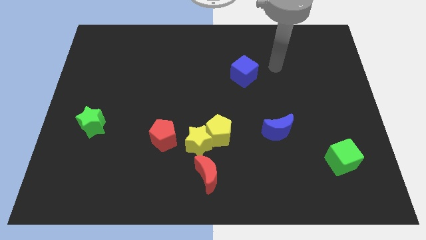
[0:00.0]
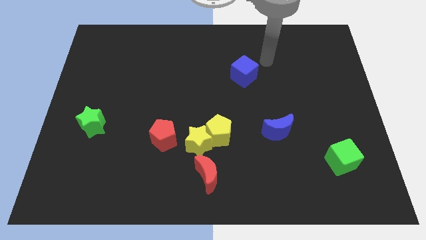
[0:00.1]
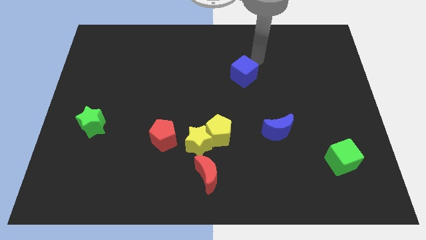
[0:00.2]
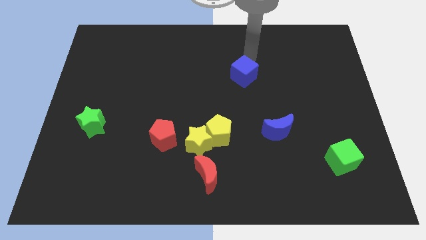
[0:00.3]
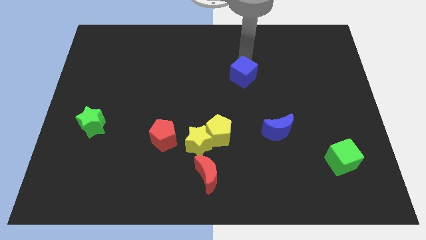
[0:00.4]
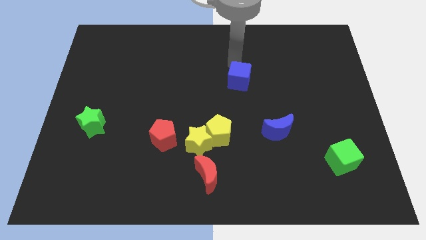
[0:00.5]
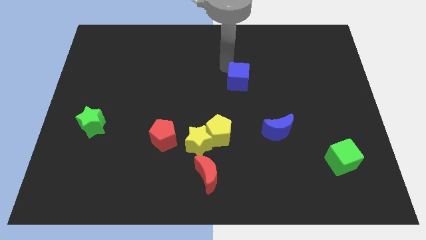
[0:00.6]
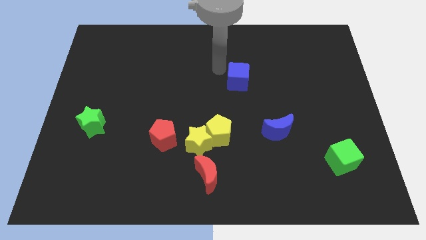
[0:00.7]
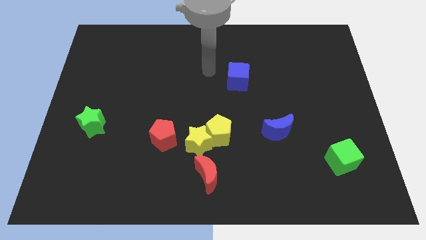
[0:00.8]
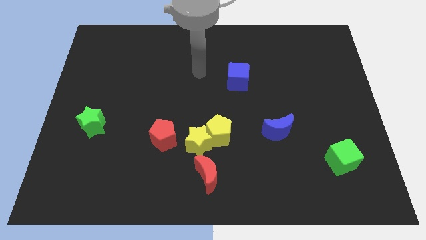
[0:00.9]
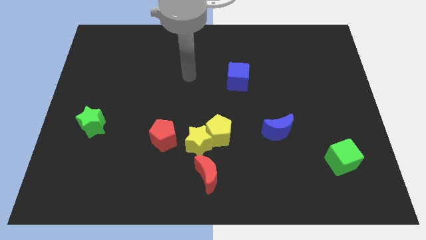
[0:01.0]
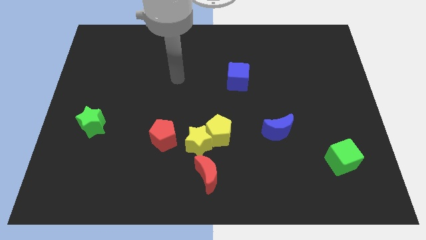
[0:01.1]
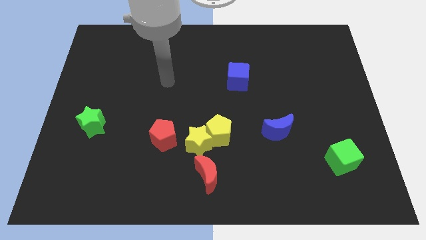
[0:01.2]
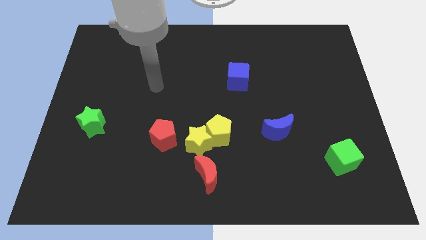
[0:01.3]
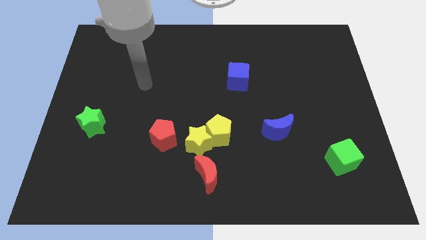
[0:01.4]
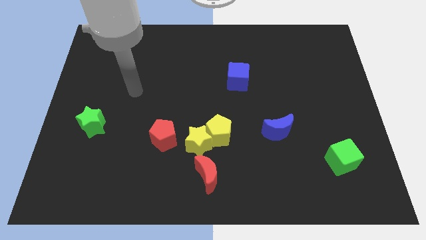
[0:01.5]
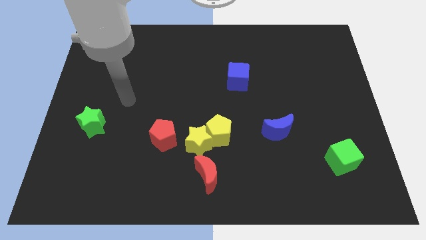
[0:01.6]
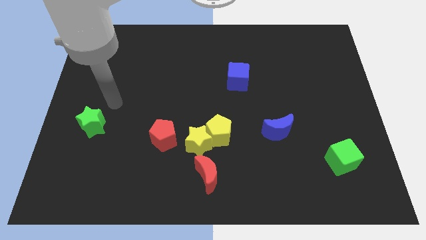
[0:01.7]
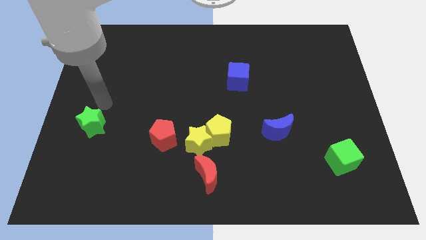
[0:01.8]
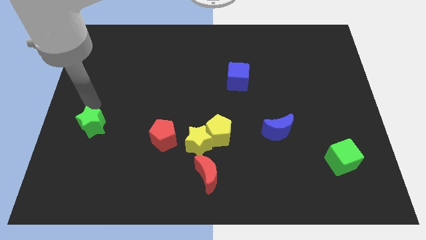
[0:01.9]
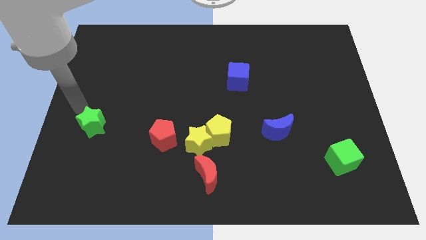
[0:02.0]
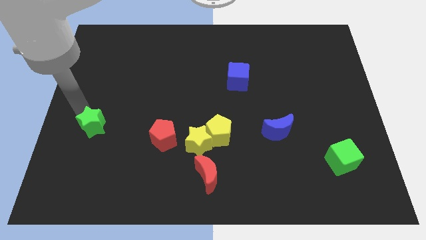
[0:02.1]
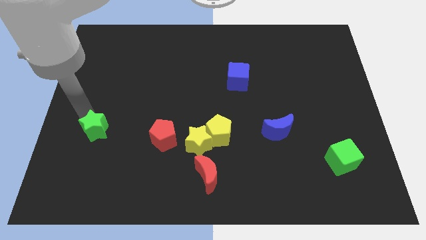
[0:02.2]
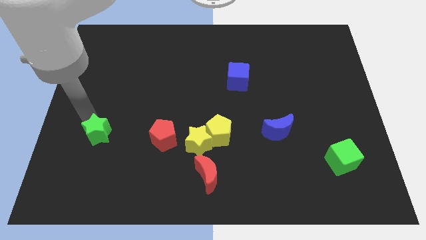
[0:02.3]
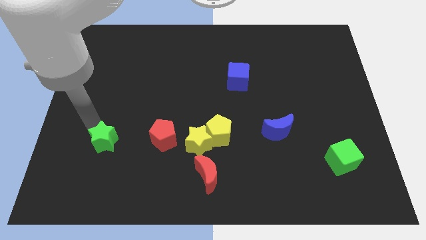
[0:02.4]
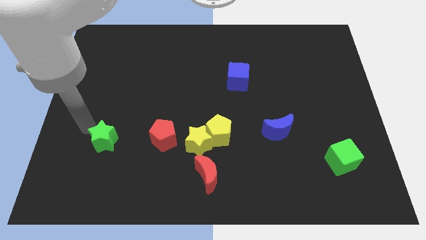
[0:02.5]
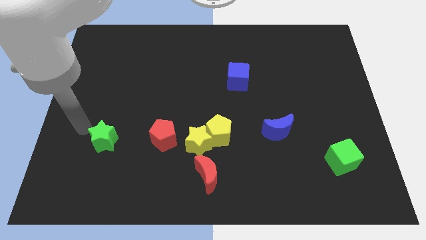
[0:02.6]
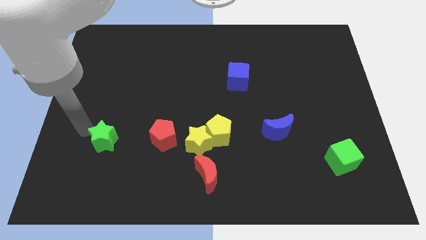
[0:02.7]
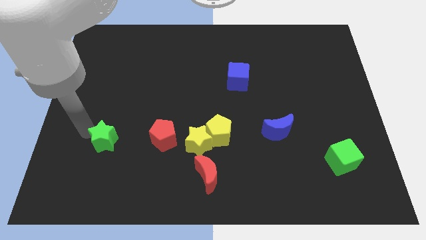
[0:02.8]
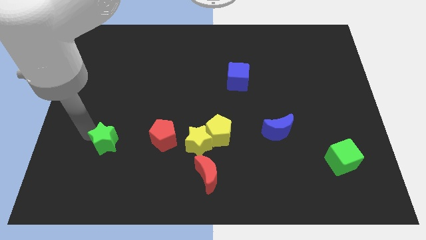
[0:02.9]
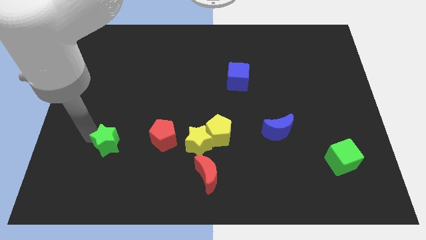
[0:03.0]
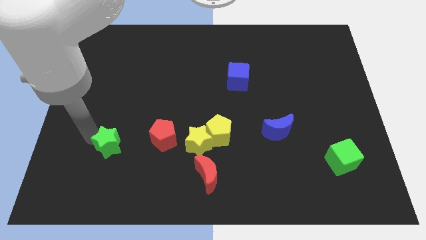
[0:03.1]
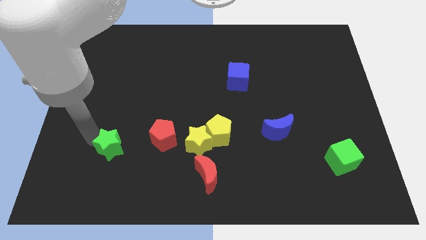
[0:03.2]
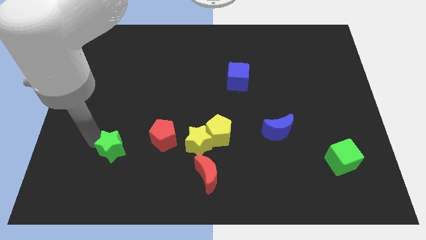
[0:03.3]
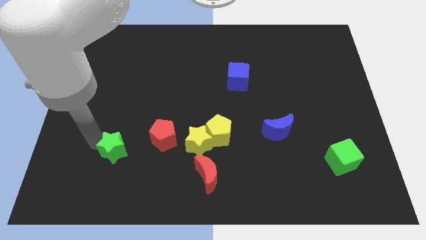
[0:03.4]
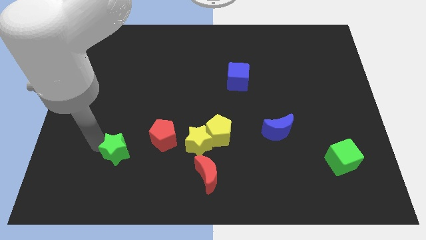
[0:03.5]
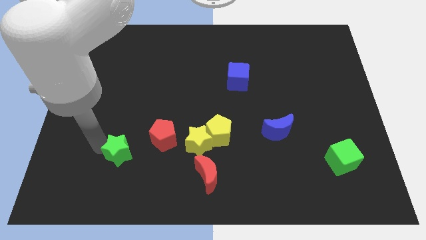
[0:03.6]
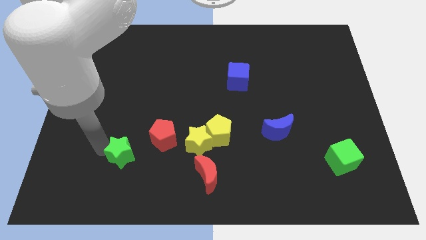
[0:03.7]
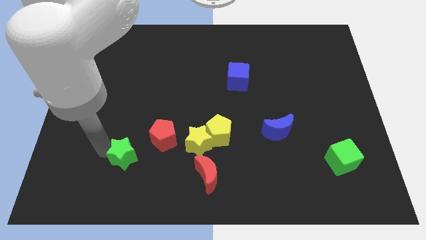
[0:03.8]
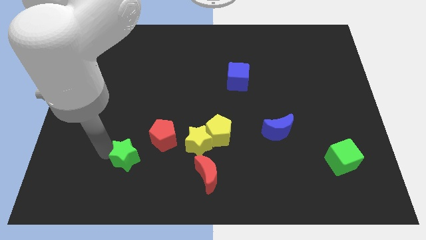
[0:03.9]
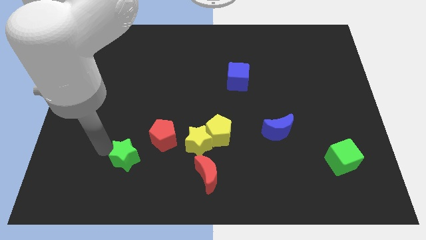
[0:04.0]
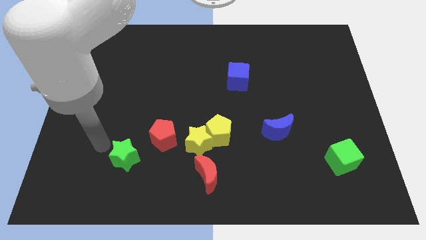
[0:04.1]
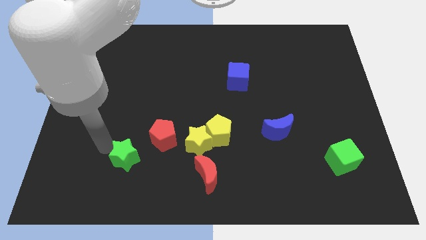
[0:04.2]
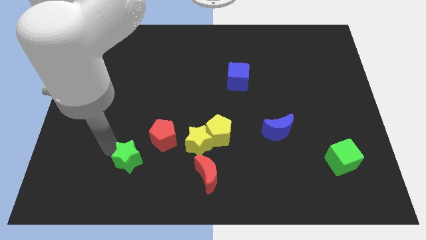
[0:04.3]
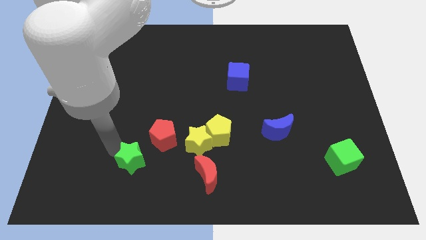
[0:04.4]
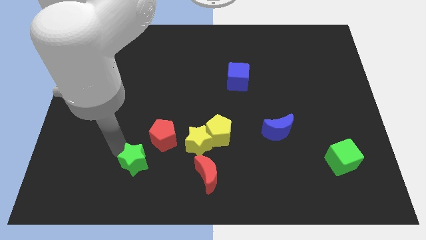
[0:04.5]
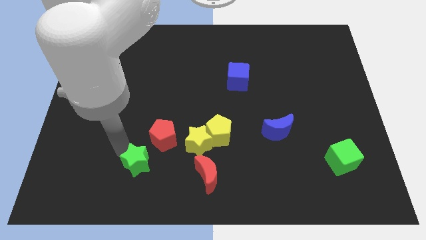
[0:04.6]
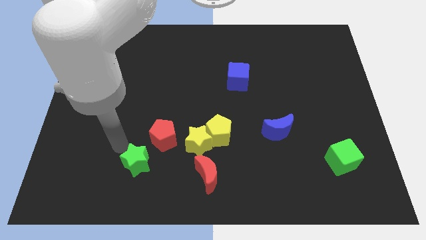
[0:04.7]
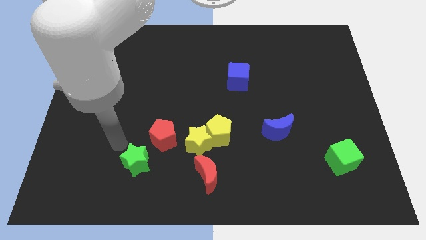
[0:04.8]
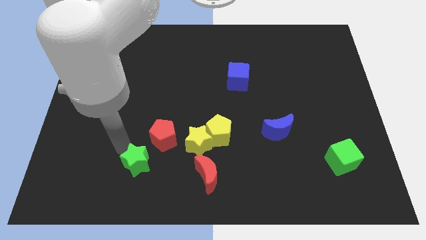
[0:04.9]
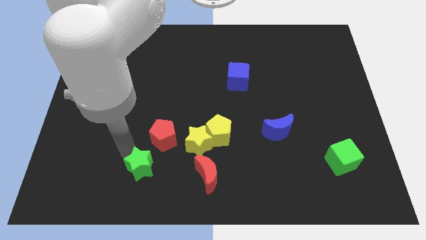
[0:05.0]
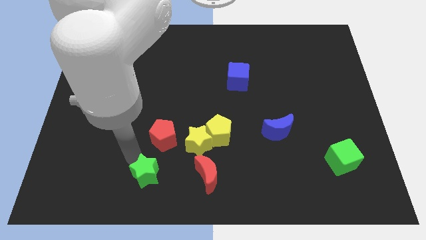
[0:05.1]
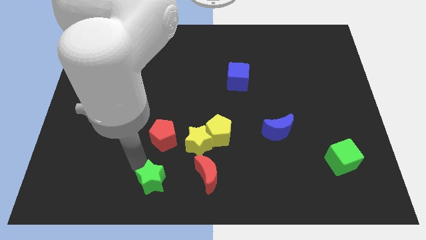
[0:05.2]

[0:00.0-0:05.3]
move the green star to the bottom

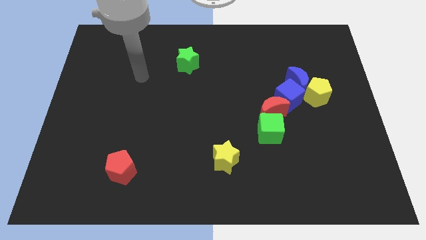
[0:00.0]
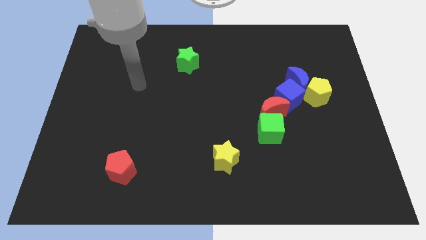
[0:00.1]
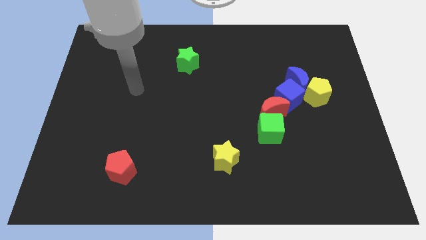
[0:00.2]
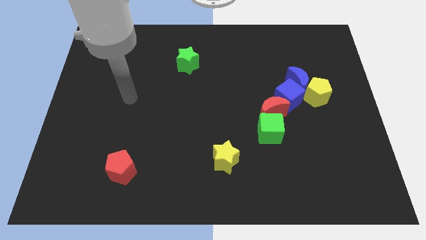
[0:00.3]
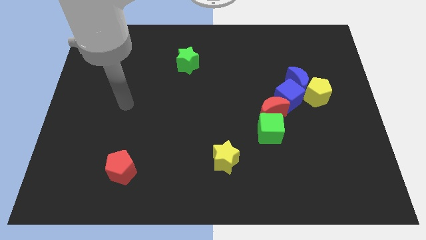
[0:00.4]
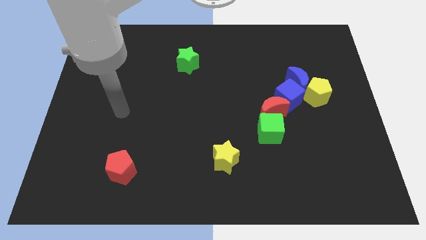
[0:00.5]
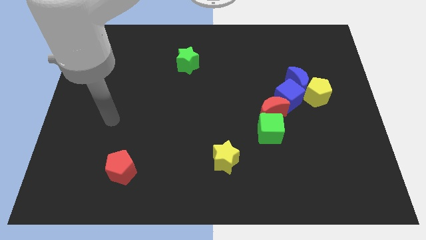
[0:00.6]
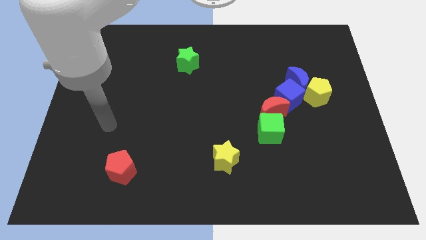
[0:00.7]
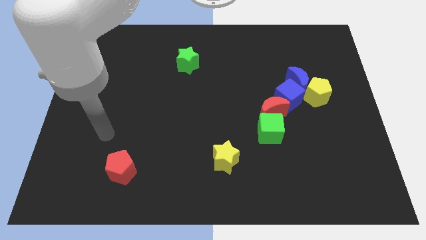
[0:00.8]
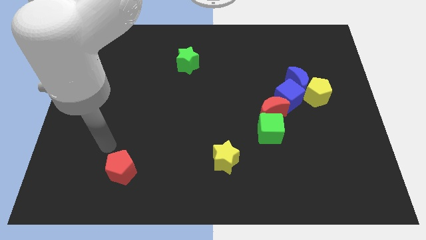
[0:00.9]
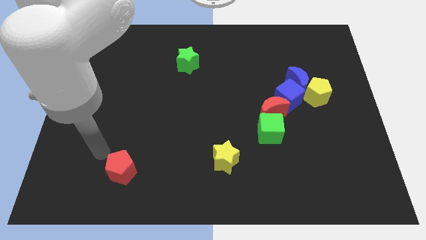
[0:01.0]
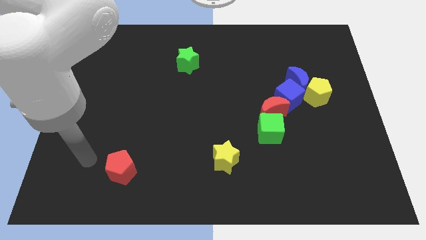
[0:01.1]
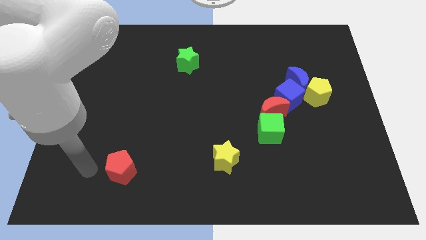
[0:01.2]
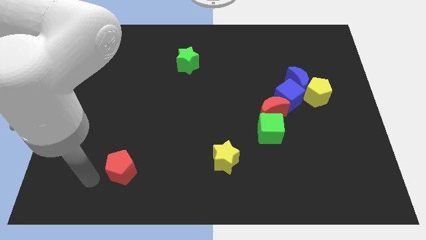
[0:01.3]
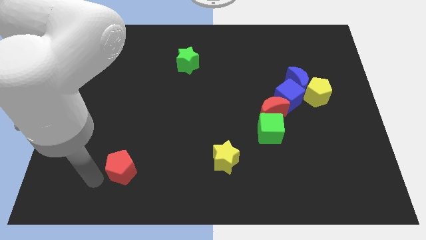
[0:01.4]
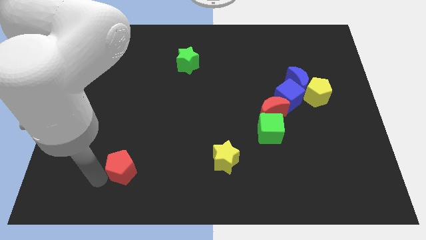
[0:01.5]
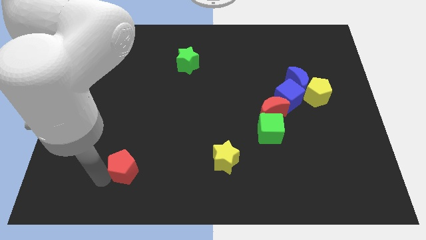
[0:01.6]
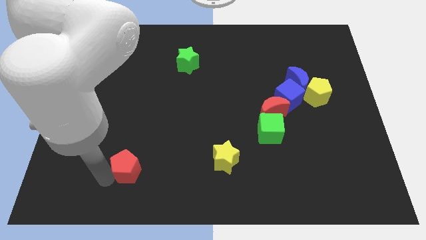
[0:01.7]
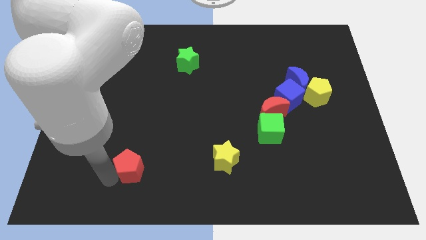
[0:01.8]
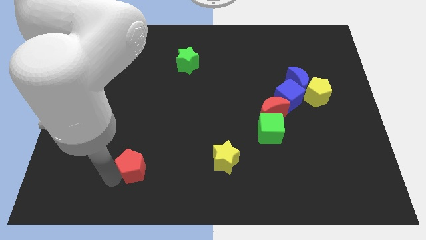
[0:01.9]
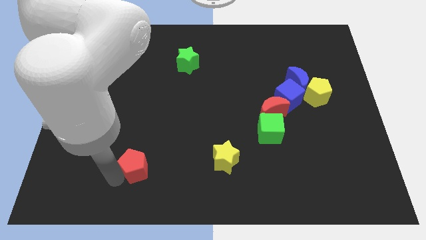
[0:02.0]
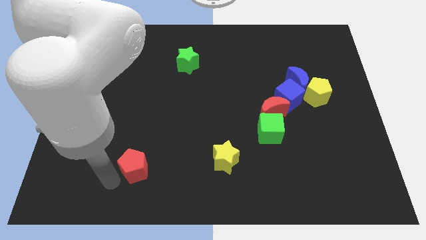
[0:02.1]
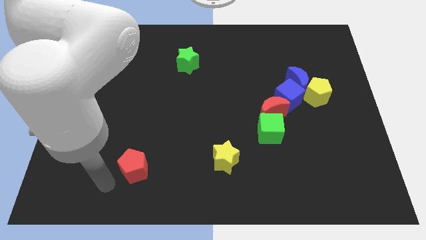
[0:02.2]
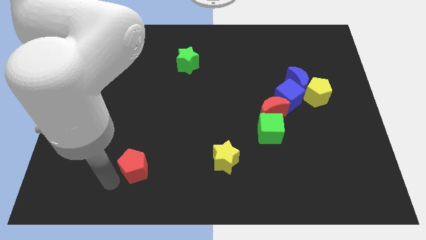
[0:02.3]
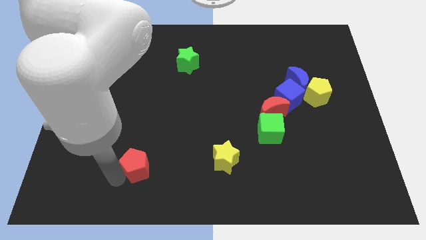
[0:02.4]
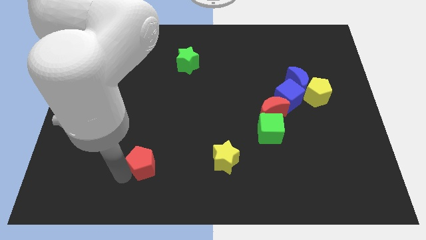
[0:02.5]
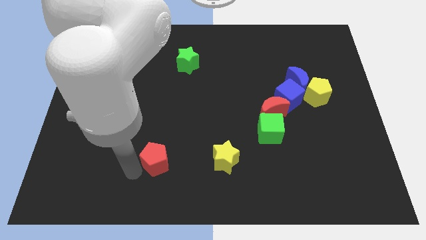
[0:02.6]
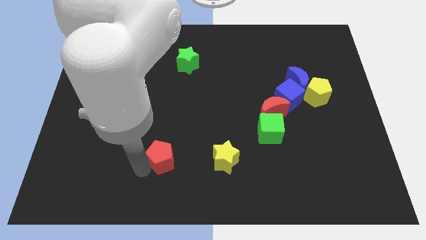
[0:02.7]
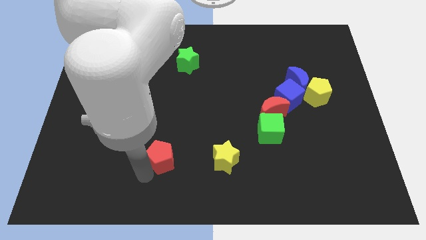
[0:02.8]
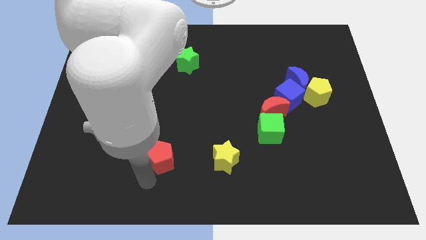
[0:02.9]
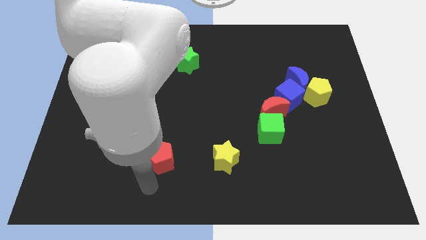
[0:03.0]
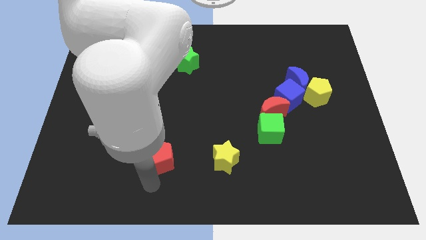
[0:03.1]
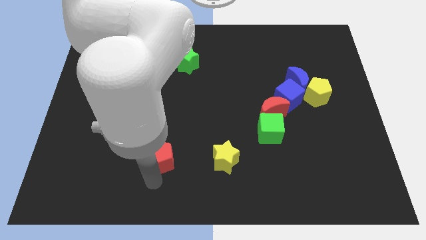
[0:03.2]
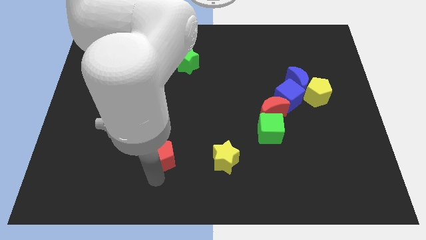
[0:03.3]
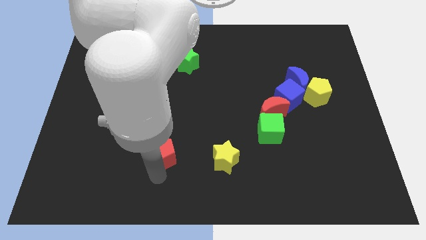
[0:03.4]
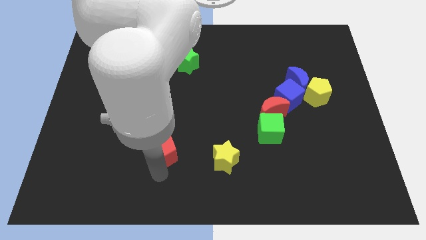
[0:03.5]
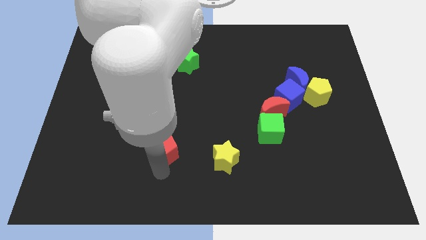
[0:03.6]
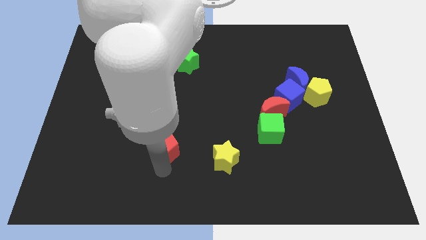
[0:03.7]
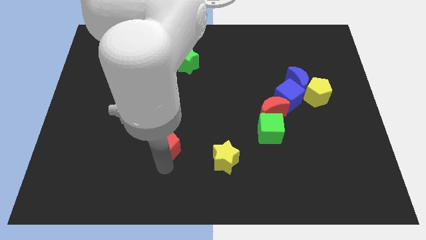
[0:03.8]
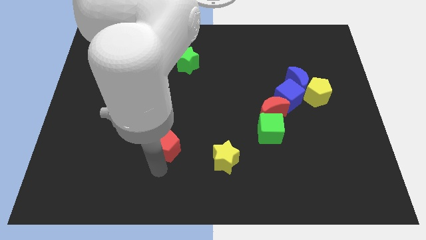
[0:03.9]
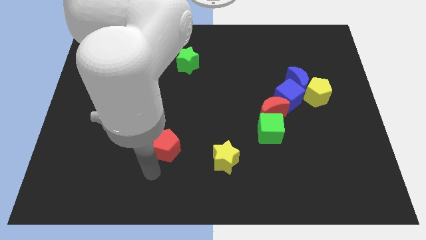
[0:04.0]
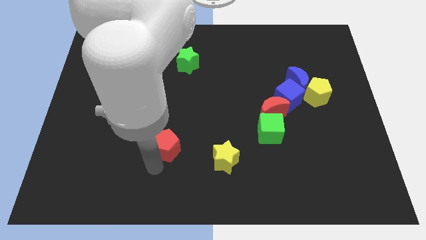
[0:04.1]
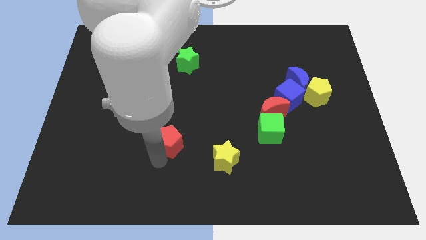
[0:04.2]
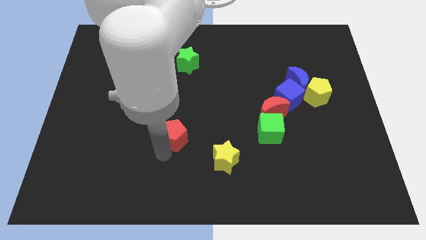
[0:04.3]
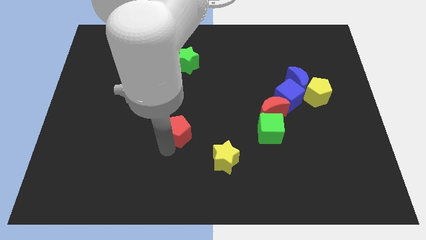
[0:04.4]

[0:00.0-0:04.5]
put the red pentagon to the middle of the board
